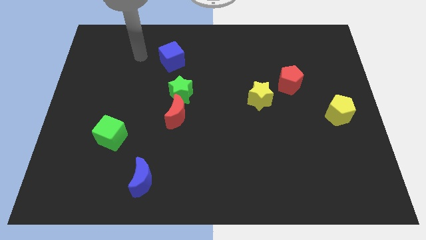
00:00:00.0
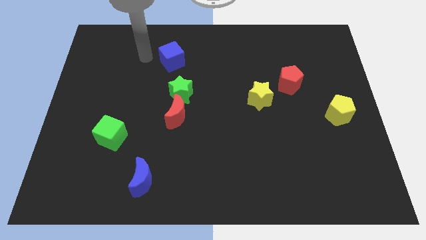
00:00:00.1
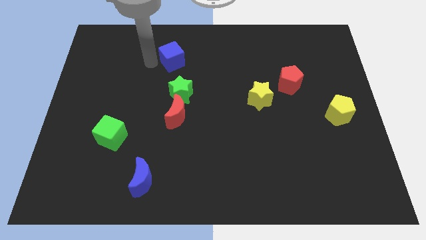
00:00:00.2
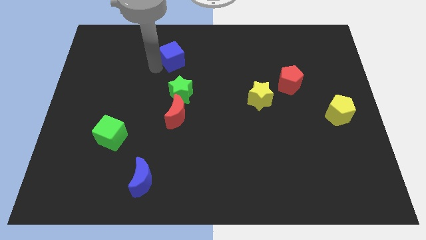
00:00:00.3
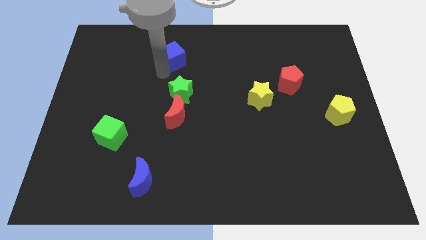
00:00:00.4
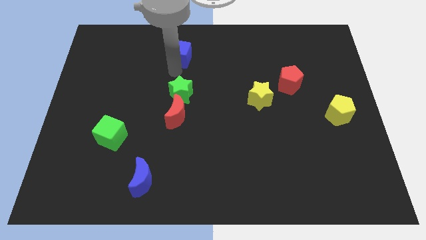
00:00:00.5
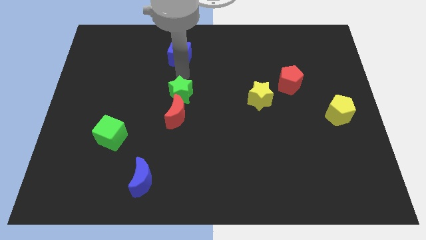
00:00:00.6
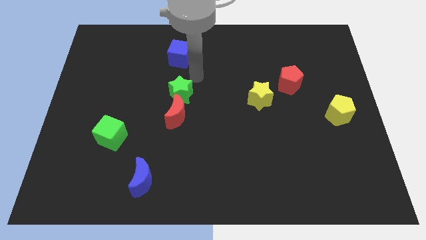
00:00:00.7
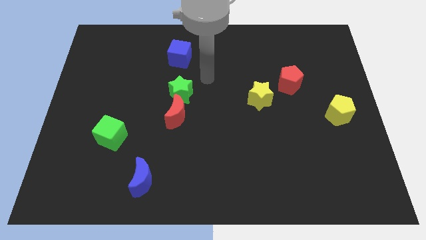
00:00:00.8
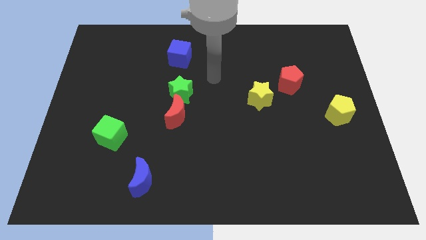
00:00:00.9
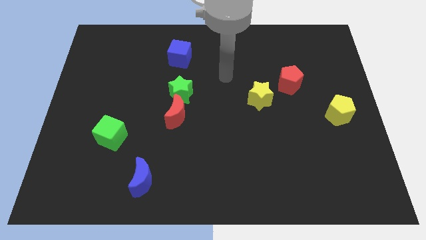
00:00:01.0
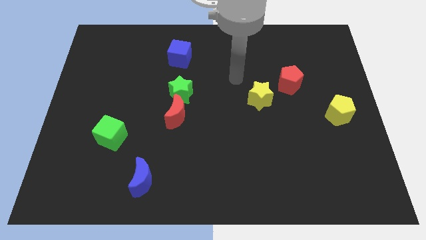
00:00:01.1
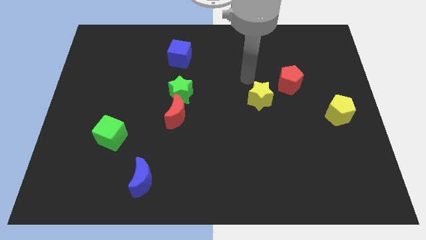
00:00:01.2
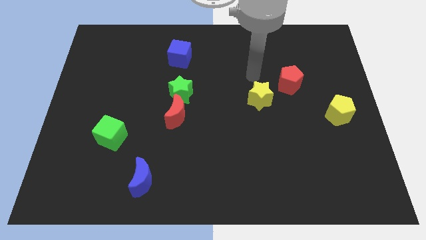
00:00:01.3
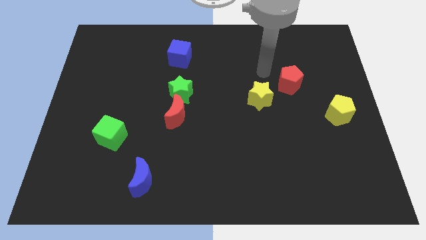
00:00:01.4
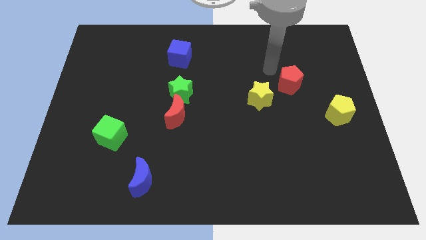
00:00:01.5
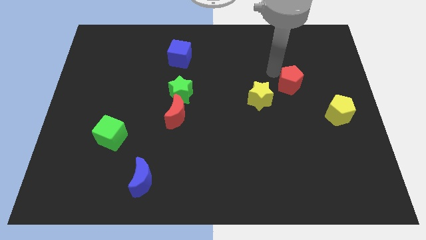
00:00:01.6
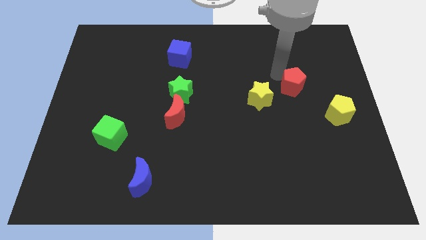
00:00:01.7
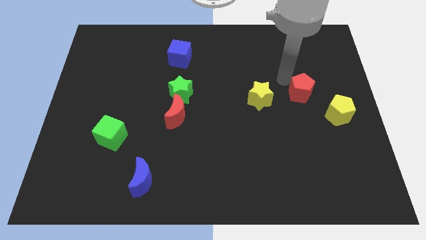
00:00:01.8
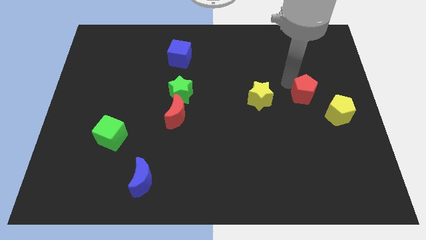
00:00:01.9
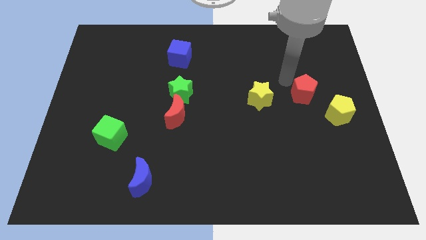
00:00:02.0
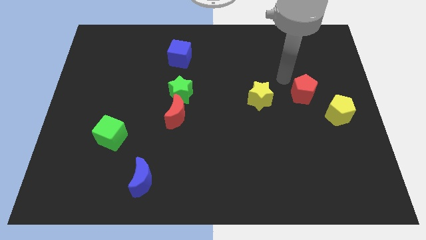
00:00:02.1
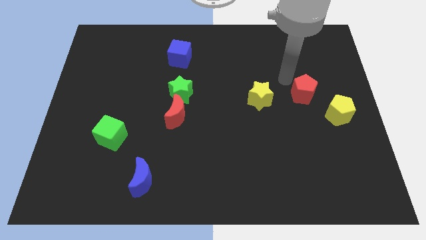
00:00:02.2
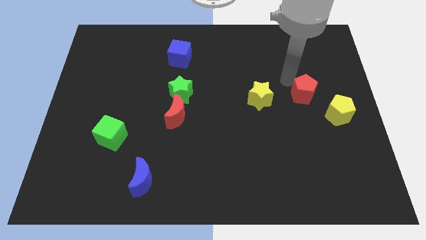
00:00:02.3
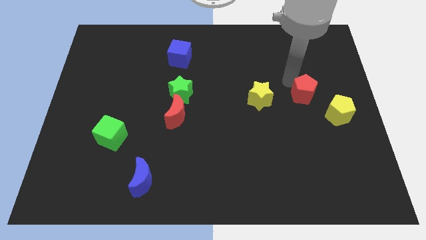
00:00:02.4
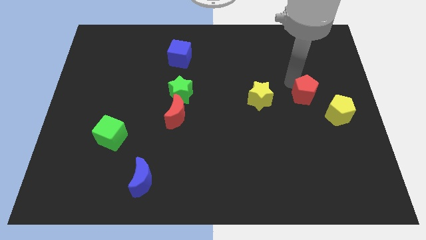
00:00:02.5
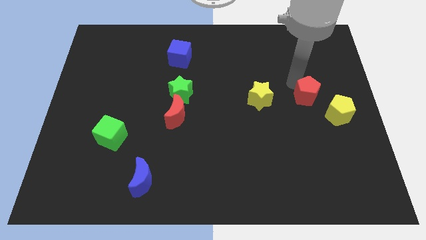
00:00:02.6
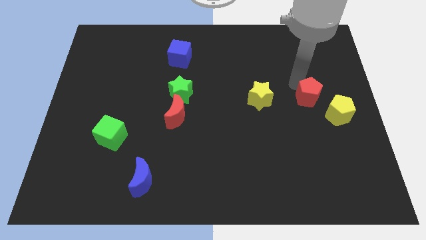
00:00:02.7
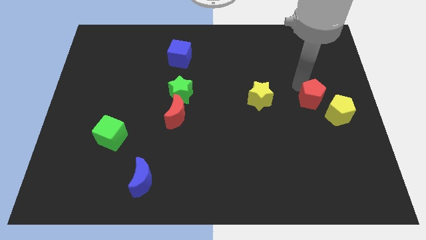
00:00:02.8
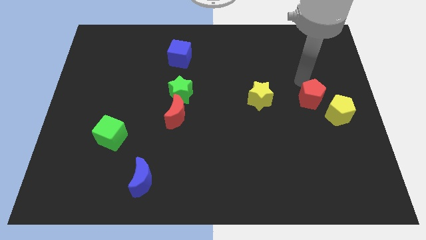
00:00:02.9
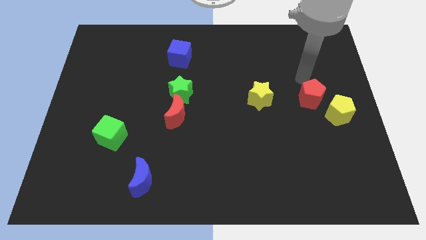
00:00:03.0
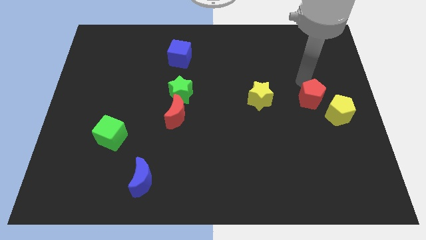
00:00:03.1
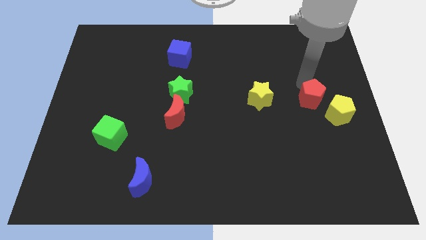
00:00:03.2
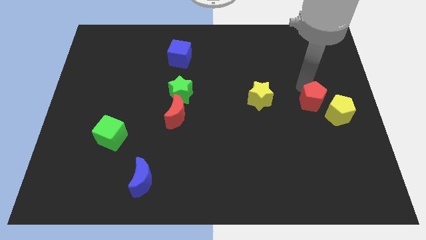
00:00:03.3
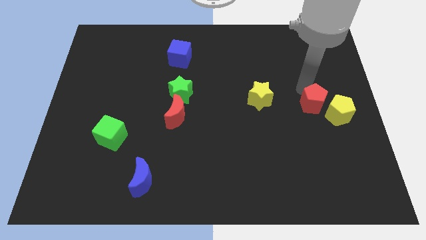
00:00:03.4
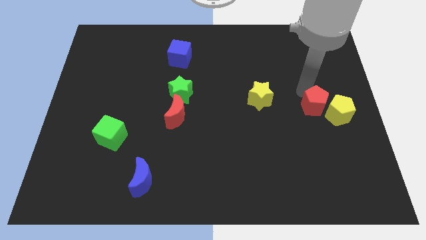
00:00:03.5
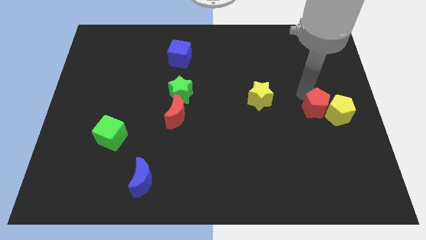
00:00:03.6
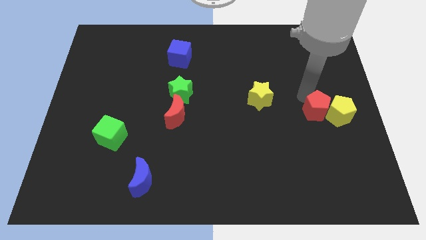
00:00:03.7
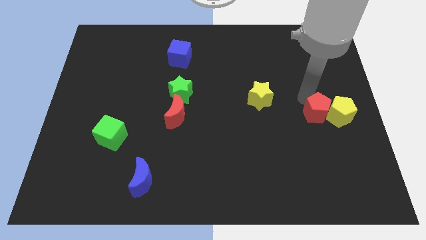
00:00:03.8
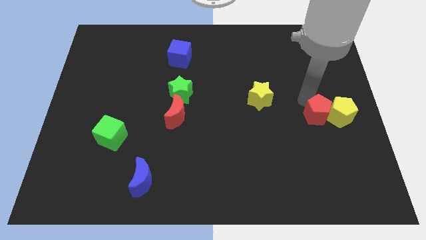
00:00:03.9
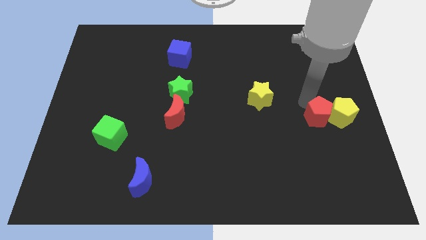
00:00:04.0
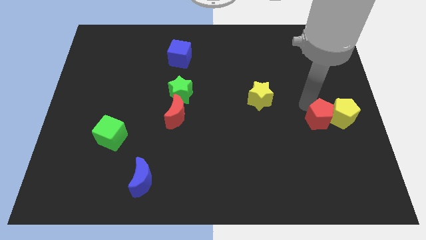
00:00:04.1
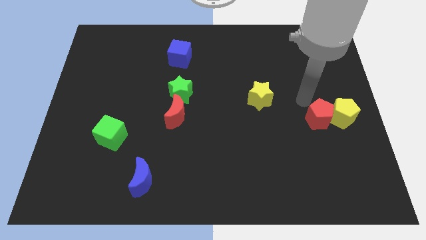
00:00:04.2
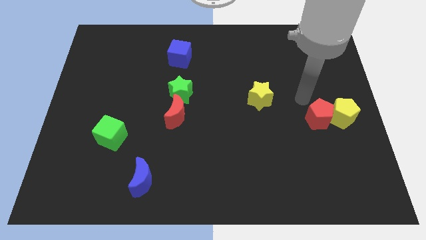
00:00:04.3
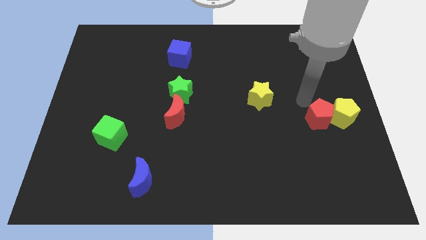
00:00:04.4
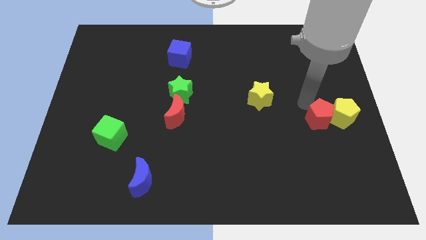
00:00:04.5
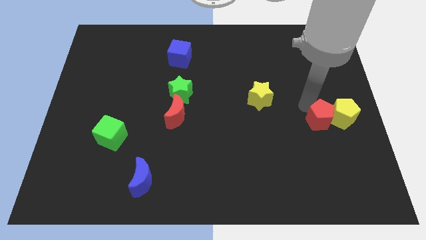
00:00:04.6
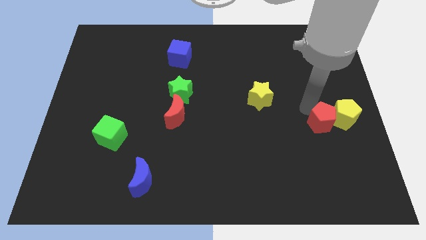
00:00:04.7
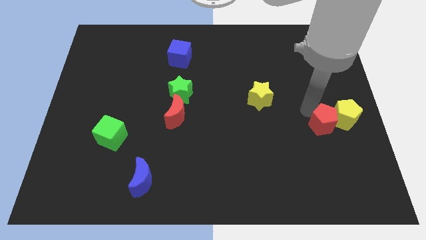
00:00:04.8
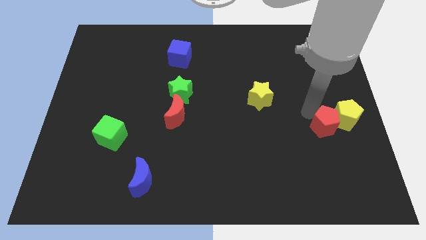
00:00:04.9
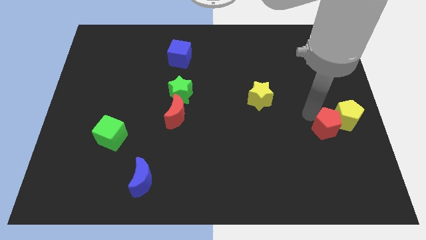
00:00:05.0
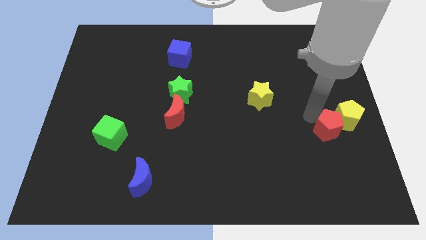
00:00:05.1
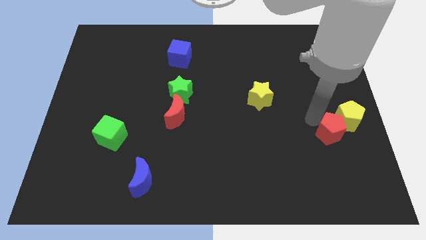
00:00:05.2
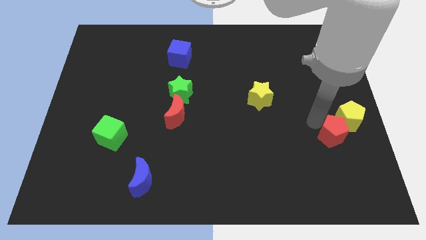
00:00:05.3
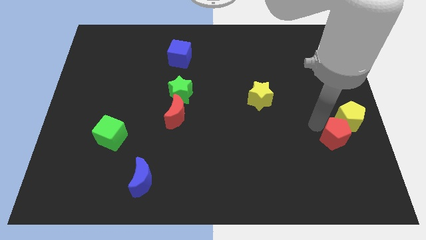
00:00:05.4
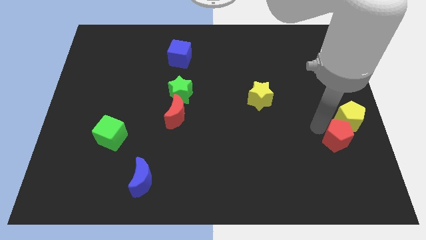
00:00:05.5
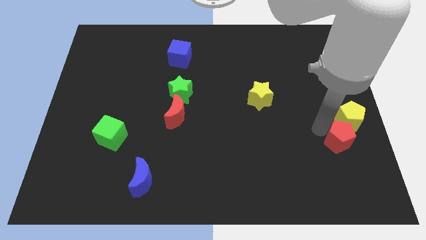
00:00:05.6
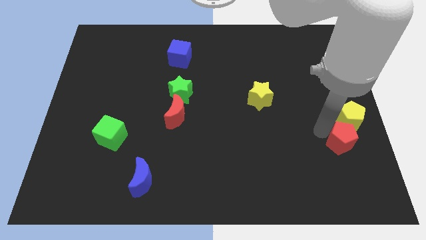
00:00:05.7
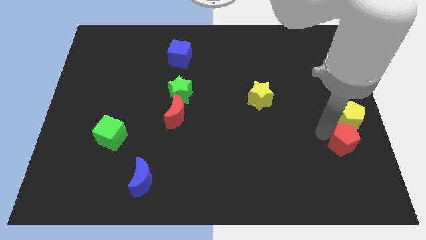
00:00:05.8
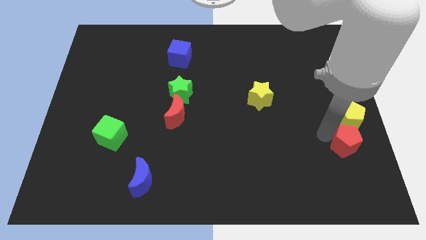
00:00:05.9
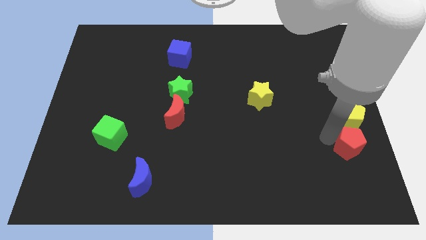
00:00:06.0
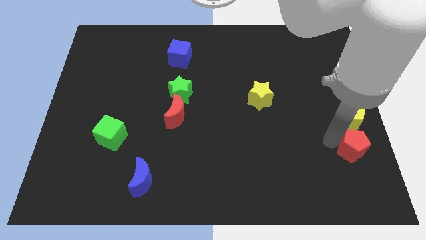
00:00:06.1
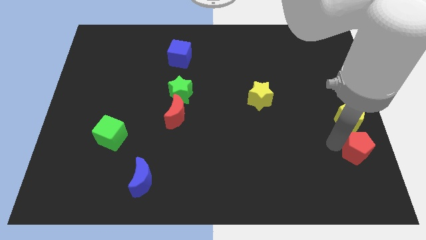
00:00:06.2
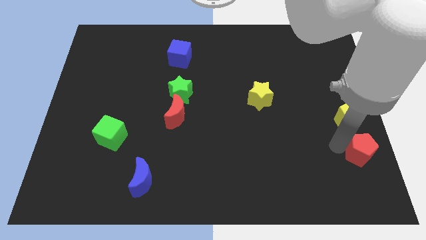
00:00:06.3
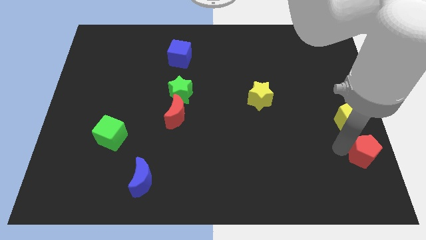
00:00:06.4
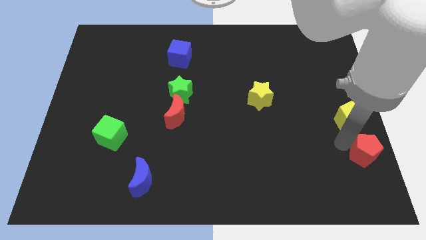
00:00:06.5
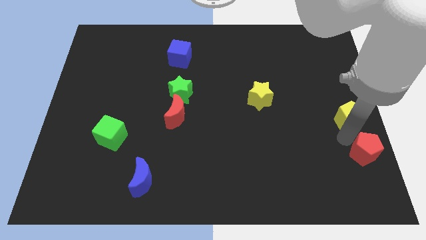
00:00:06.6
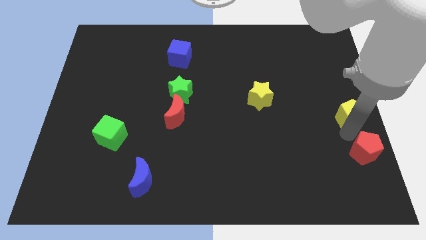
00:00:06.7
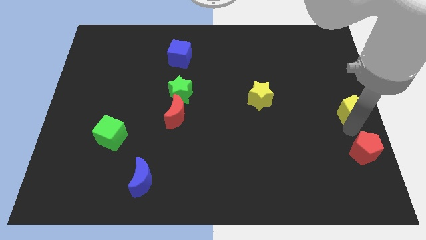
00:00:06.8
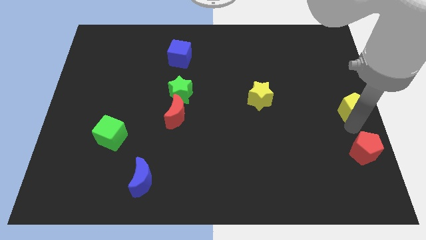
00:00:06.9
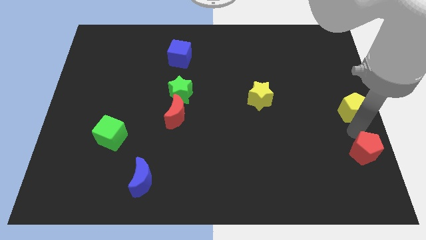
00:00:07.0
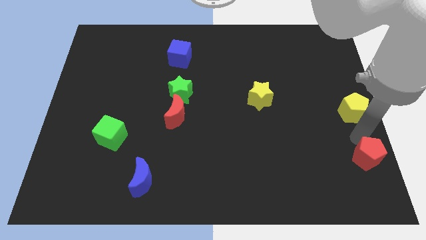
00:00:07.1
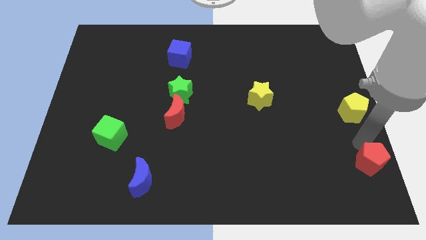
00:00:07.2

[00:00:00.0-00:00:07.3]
put the red pentagon to the bottom right
